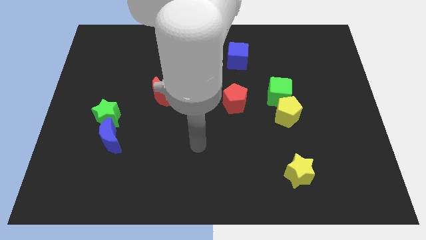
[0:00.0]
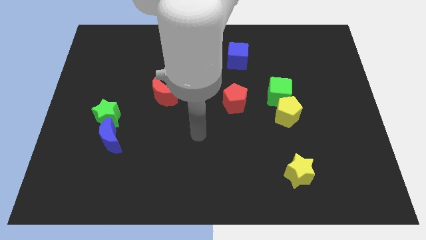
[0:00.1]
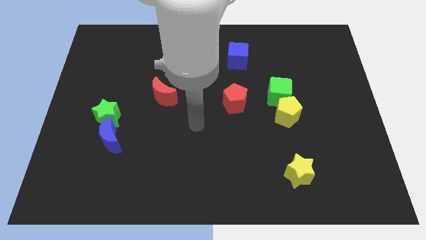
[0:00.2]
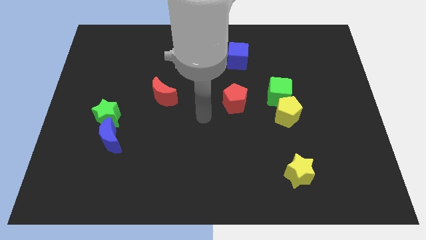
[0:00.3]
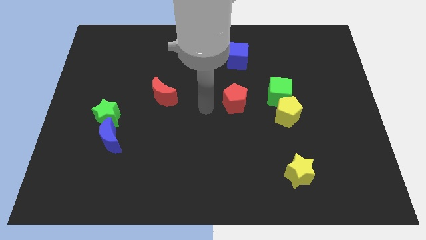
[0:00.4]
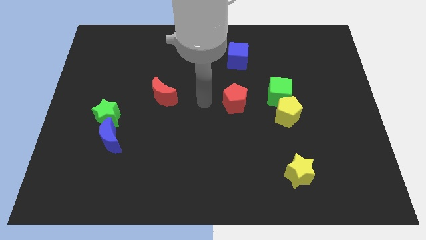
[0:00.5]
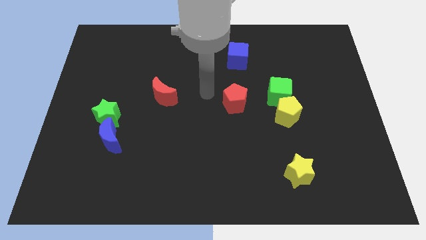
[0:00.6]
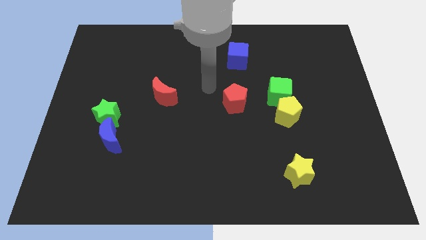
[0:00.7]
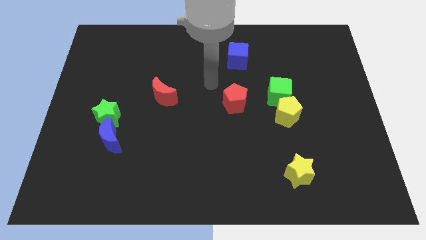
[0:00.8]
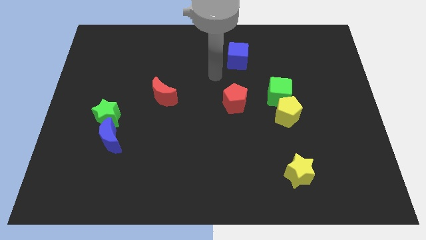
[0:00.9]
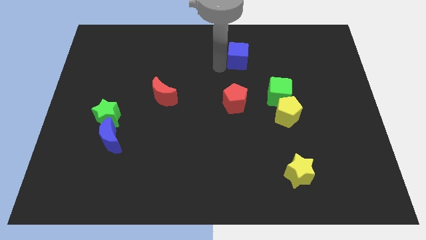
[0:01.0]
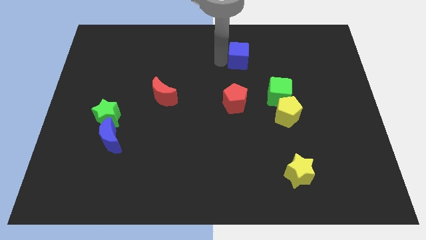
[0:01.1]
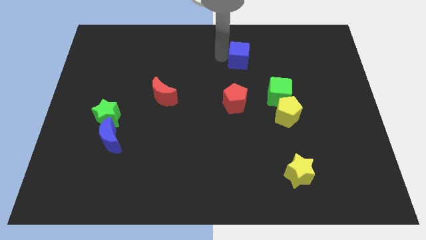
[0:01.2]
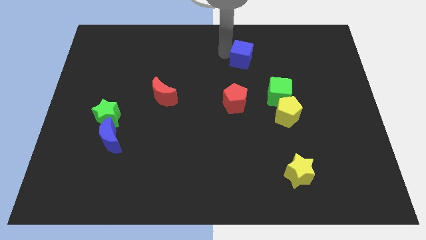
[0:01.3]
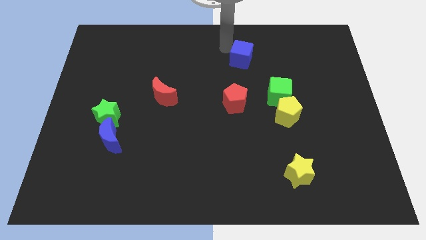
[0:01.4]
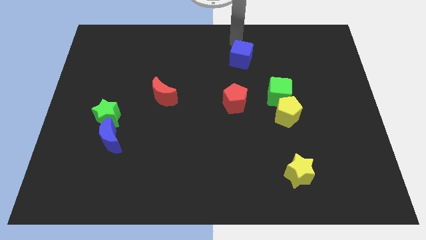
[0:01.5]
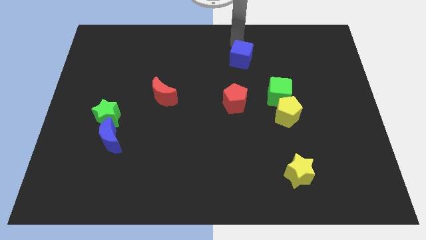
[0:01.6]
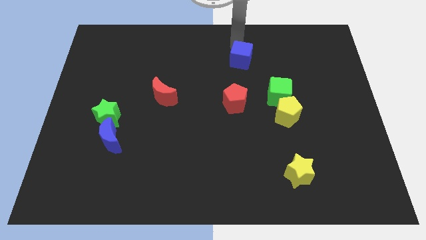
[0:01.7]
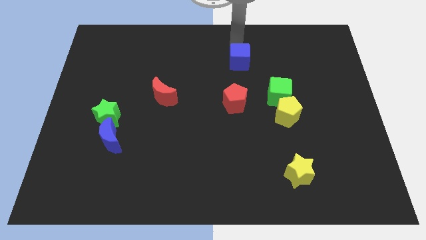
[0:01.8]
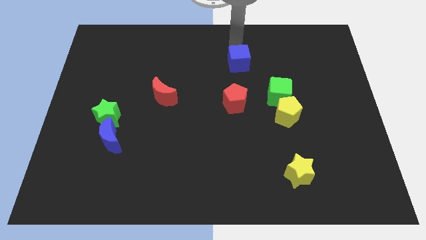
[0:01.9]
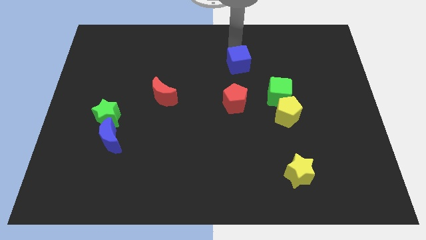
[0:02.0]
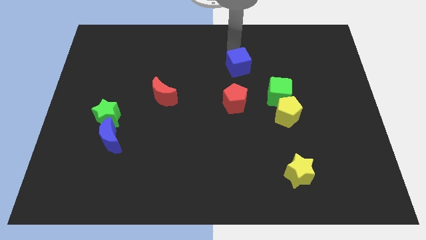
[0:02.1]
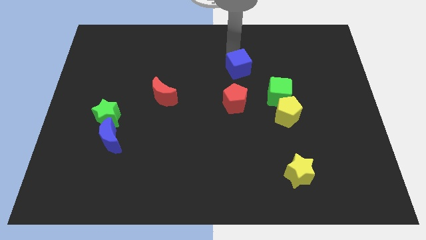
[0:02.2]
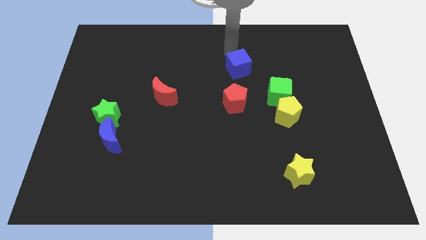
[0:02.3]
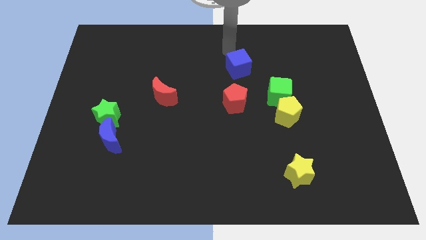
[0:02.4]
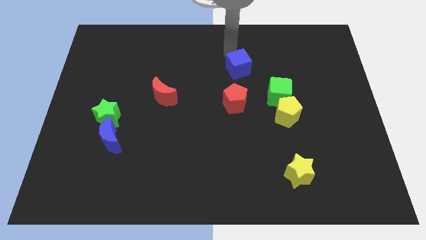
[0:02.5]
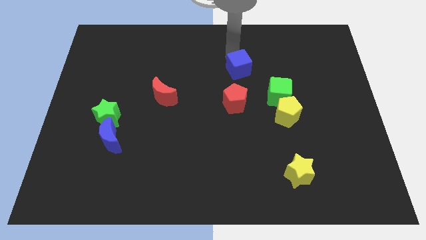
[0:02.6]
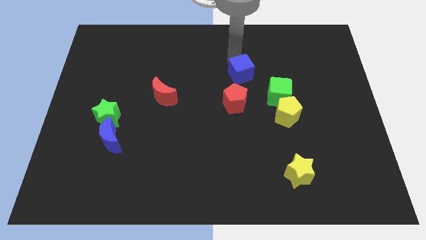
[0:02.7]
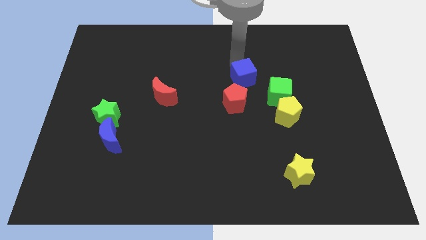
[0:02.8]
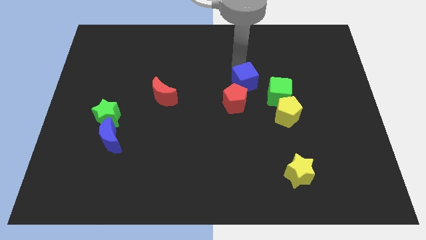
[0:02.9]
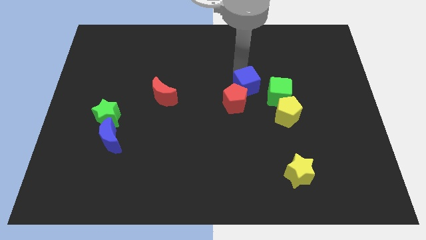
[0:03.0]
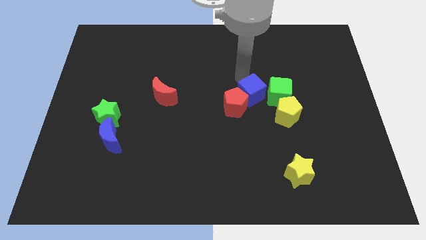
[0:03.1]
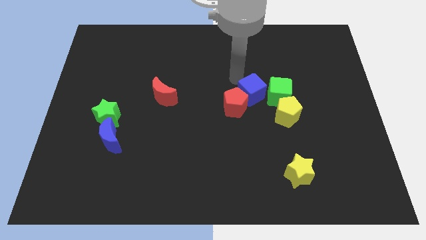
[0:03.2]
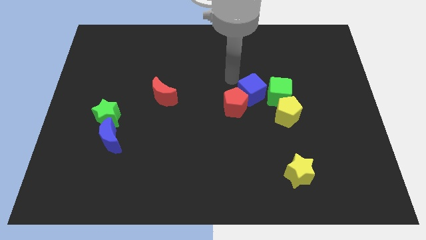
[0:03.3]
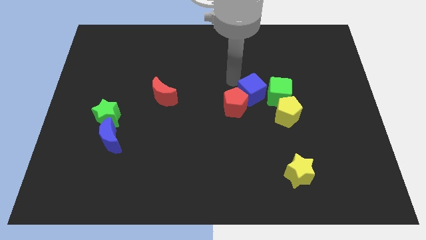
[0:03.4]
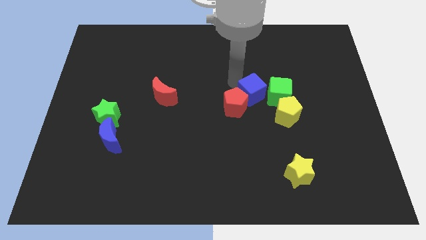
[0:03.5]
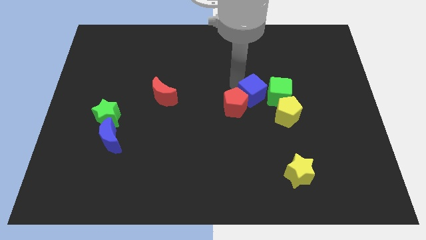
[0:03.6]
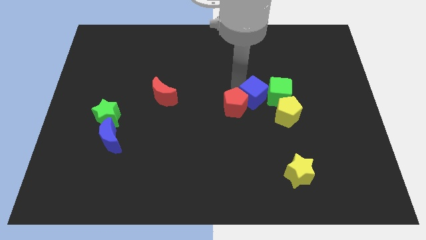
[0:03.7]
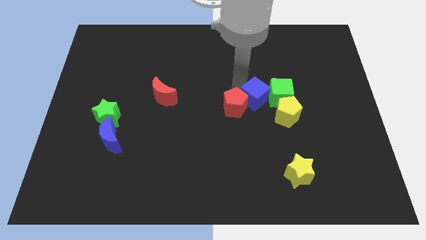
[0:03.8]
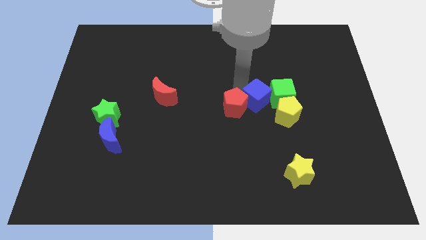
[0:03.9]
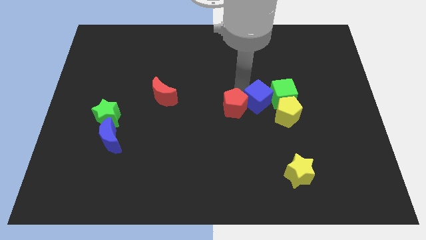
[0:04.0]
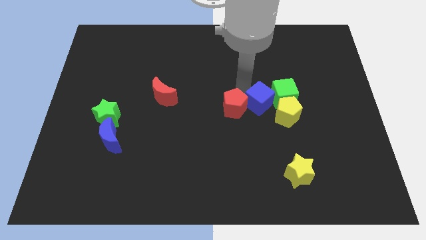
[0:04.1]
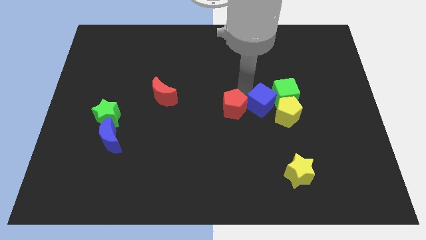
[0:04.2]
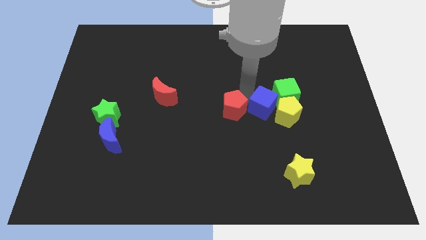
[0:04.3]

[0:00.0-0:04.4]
move the blue cube to the yellow pentagon

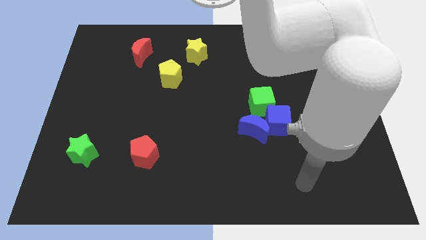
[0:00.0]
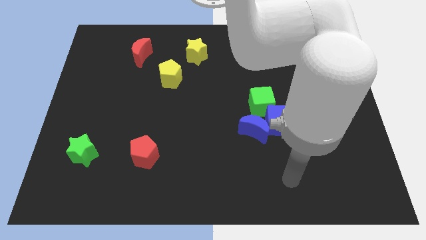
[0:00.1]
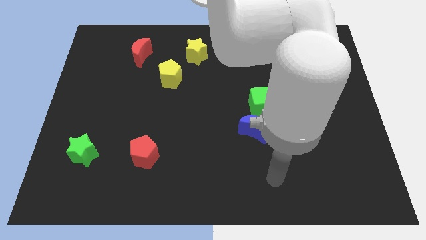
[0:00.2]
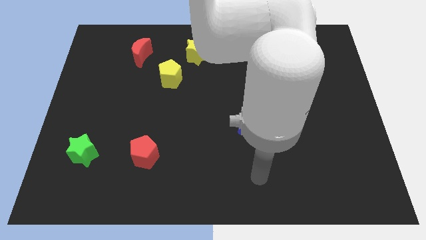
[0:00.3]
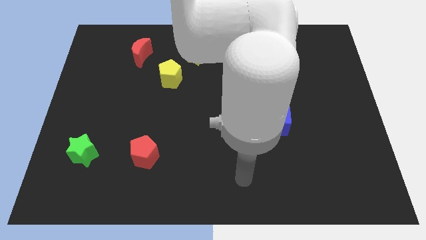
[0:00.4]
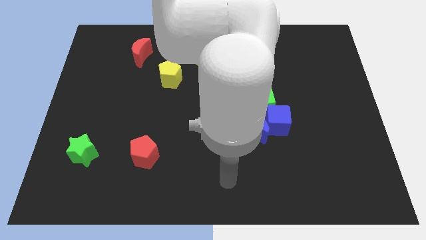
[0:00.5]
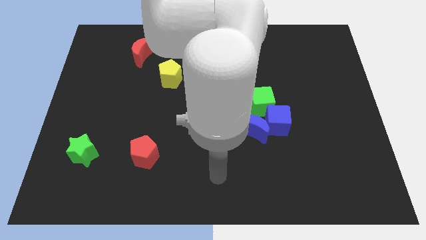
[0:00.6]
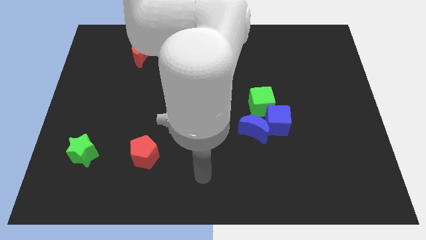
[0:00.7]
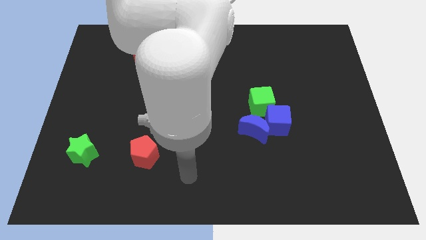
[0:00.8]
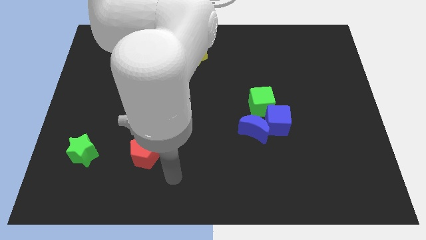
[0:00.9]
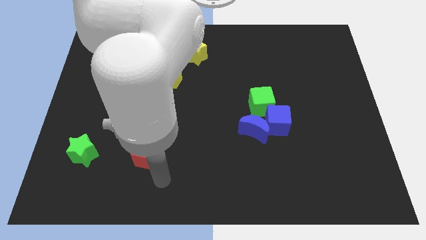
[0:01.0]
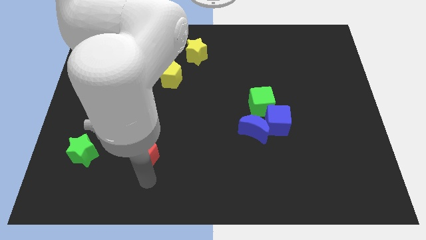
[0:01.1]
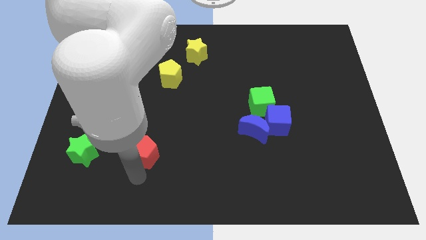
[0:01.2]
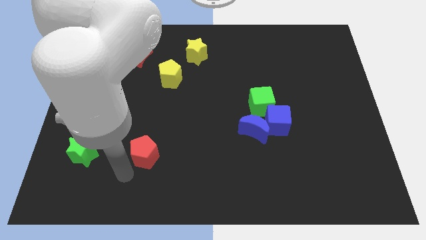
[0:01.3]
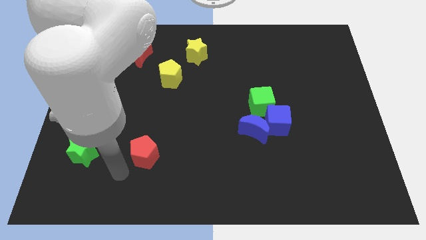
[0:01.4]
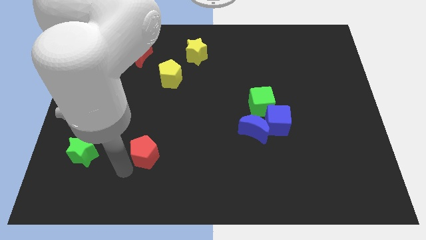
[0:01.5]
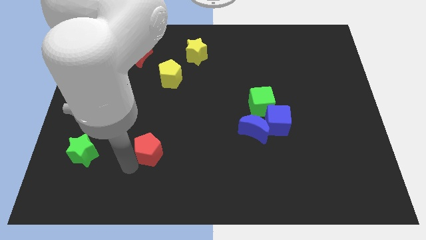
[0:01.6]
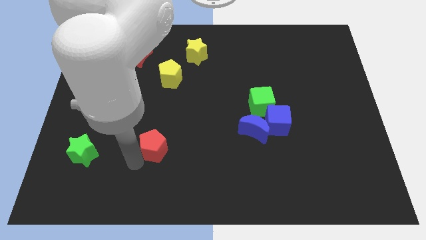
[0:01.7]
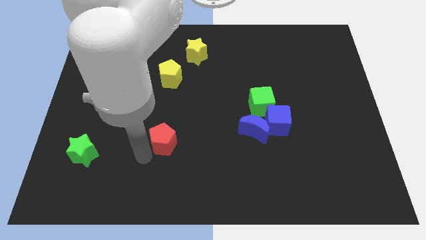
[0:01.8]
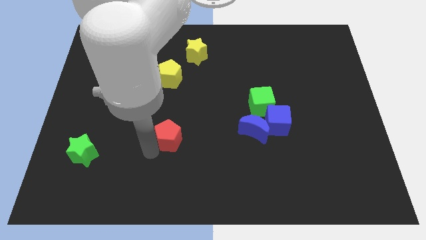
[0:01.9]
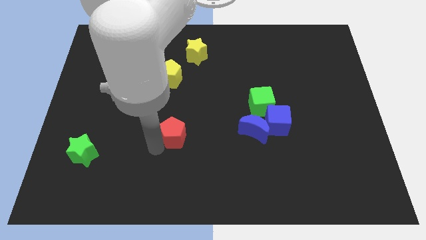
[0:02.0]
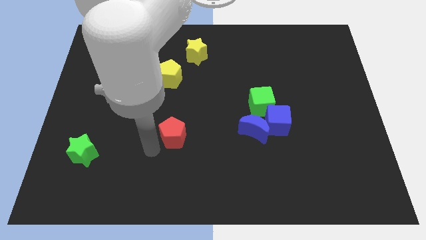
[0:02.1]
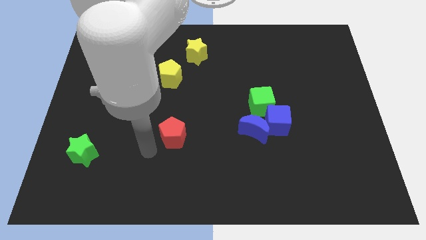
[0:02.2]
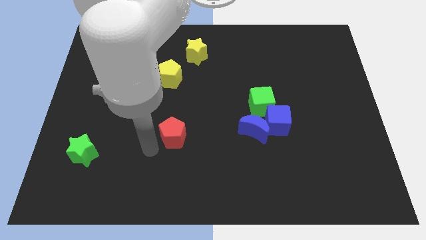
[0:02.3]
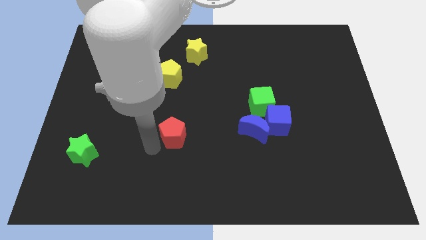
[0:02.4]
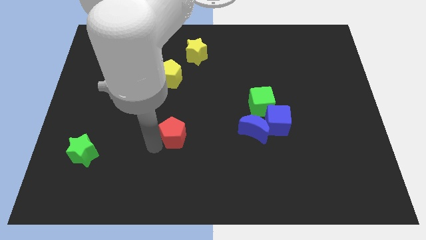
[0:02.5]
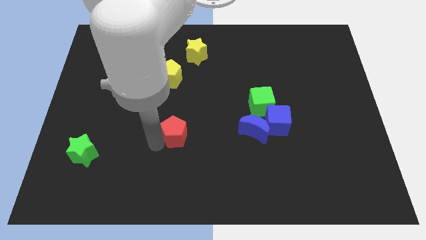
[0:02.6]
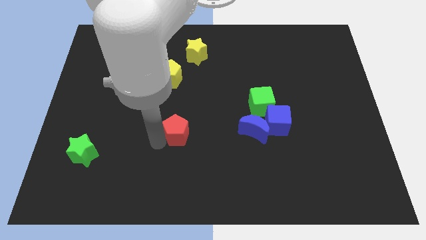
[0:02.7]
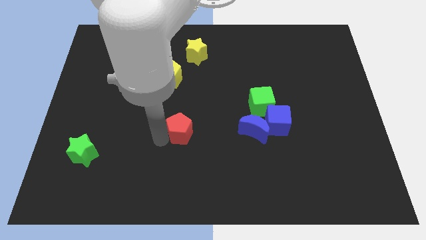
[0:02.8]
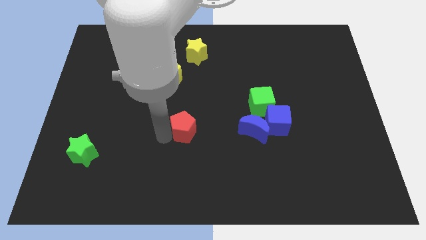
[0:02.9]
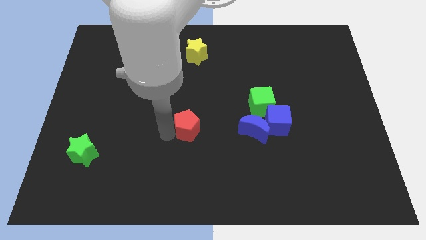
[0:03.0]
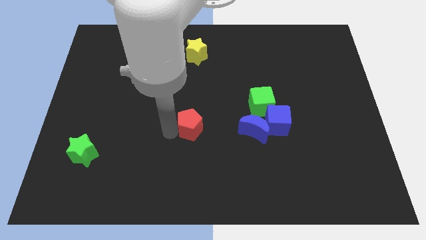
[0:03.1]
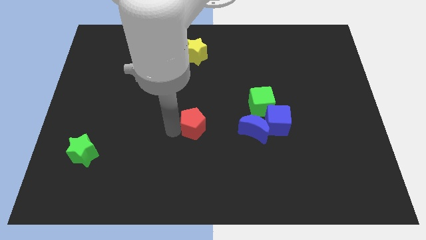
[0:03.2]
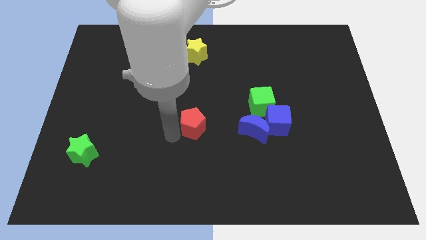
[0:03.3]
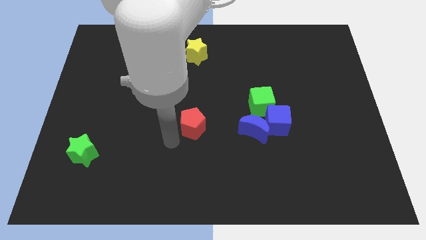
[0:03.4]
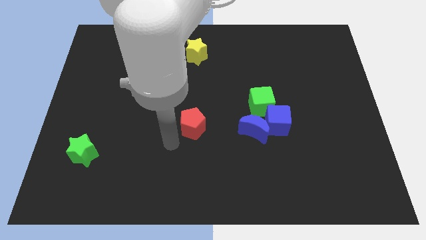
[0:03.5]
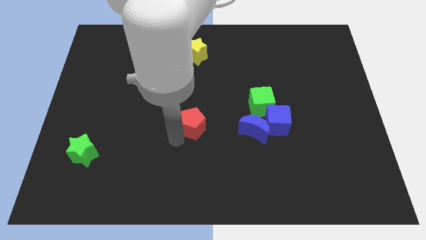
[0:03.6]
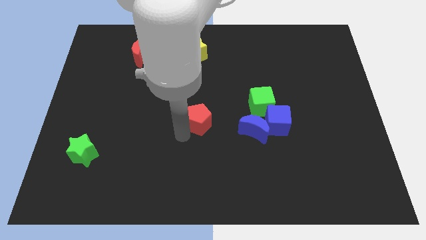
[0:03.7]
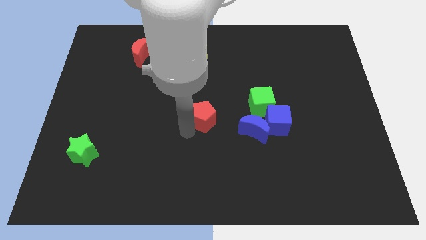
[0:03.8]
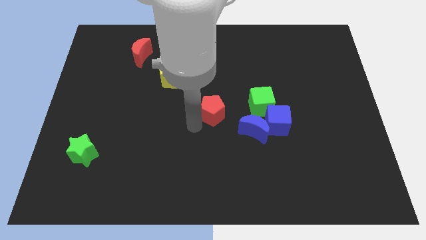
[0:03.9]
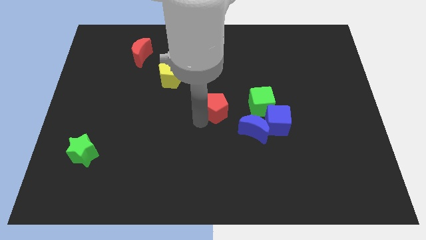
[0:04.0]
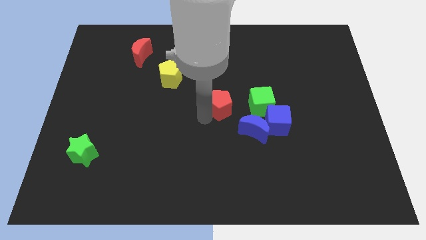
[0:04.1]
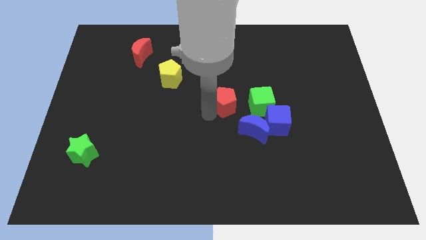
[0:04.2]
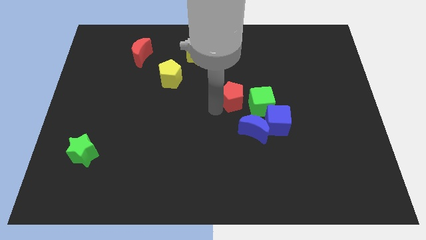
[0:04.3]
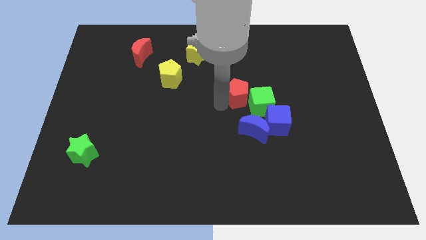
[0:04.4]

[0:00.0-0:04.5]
slide the red pentagon to the green cube
